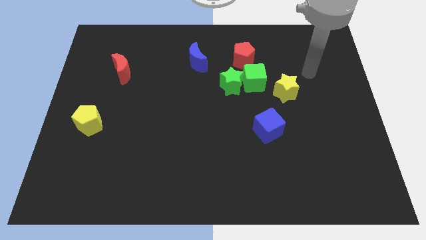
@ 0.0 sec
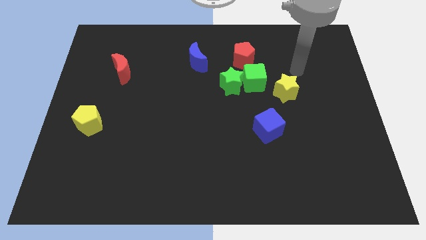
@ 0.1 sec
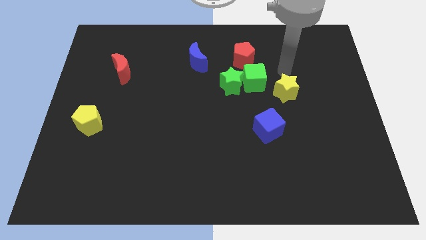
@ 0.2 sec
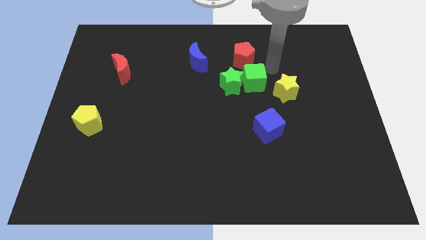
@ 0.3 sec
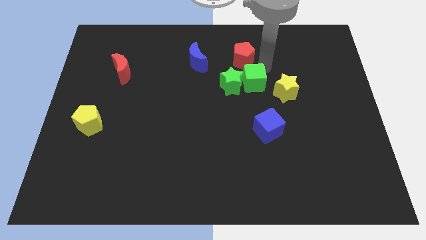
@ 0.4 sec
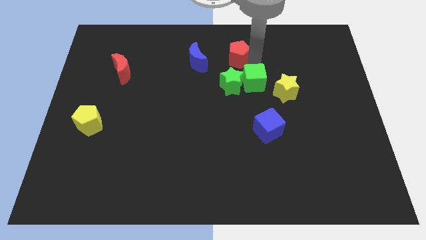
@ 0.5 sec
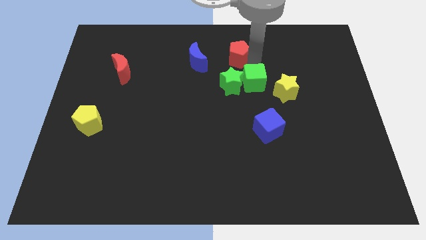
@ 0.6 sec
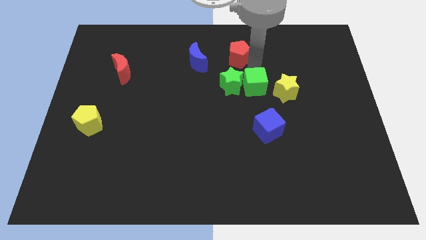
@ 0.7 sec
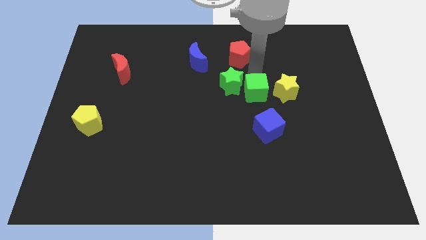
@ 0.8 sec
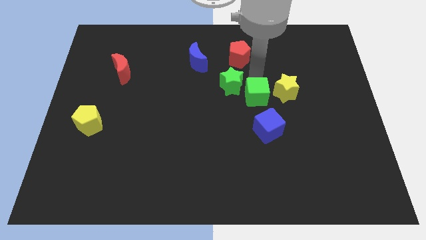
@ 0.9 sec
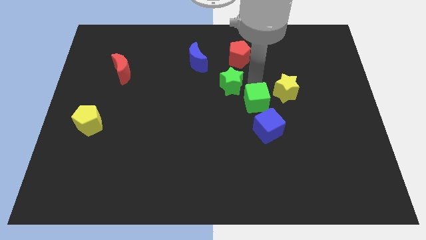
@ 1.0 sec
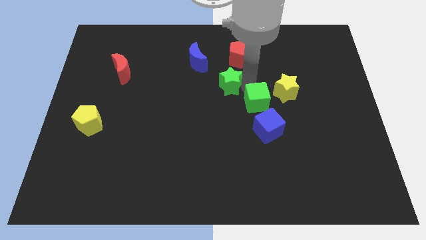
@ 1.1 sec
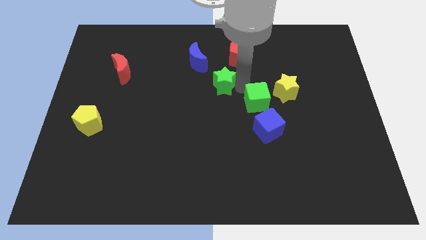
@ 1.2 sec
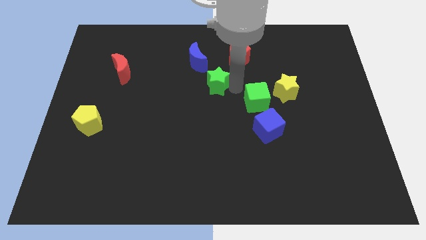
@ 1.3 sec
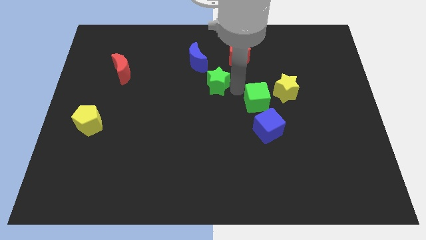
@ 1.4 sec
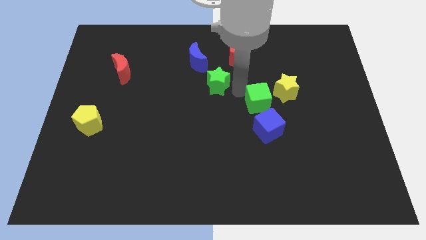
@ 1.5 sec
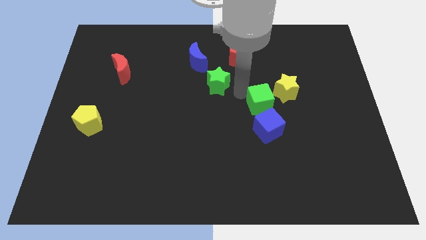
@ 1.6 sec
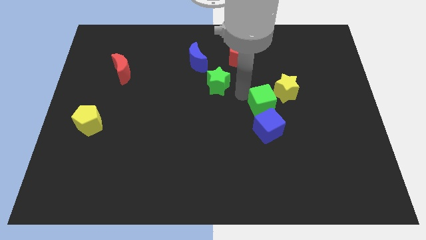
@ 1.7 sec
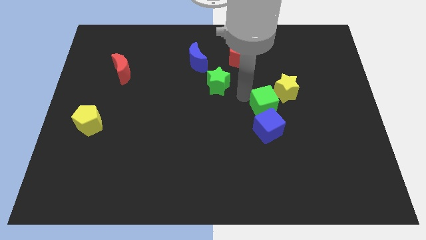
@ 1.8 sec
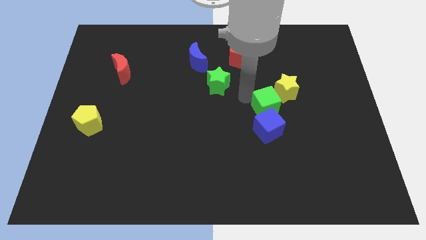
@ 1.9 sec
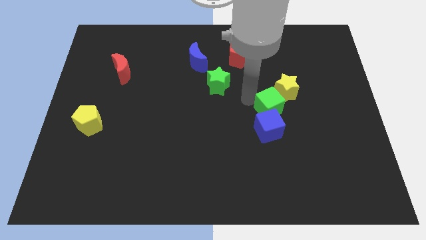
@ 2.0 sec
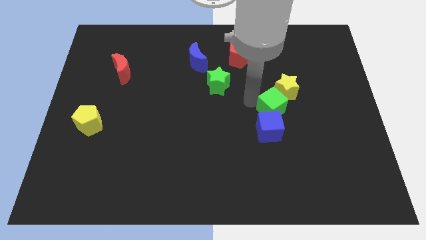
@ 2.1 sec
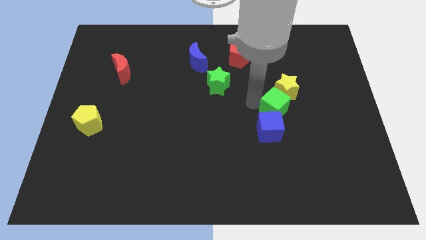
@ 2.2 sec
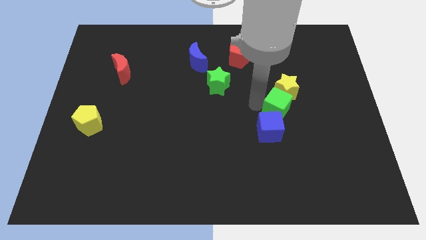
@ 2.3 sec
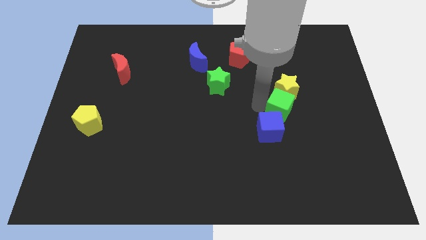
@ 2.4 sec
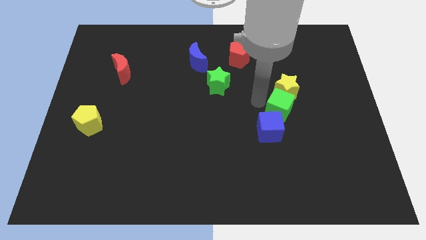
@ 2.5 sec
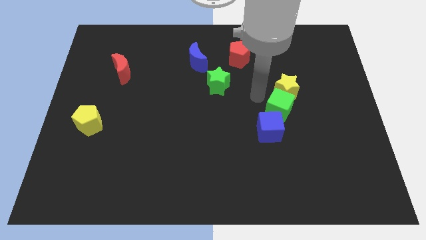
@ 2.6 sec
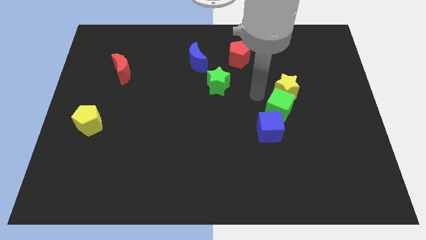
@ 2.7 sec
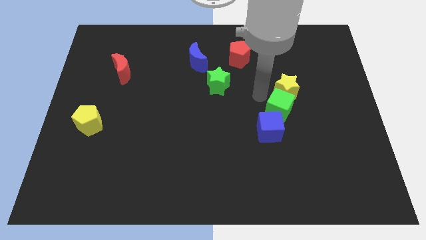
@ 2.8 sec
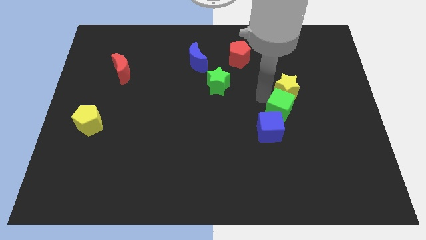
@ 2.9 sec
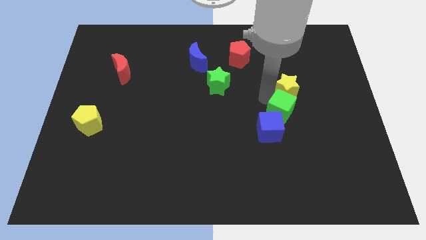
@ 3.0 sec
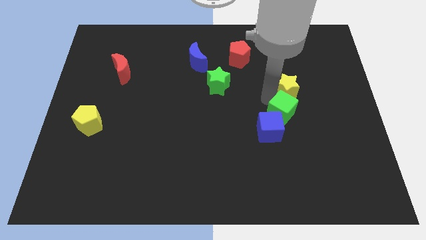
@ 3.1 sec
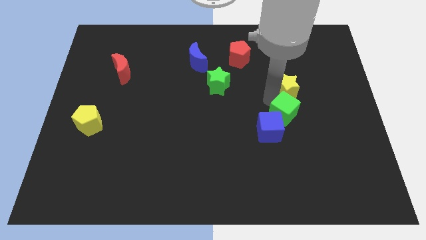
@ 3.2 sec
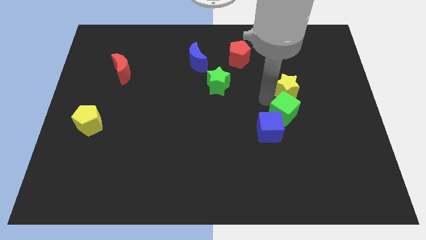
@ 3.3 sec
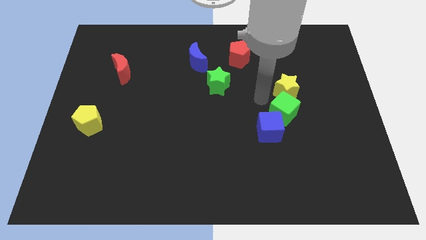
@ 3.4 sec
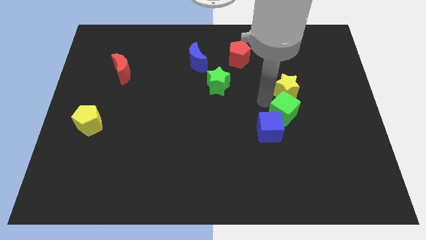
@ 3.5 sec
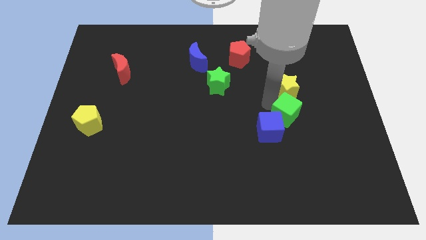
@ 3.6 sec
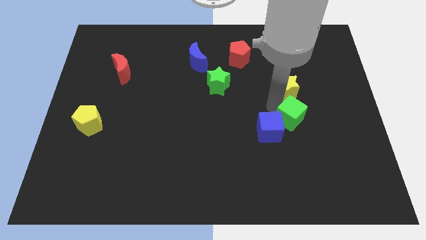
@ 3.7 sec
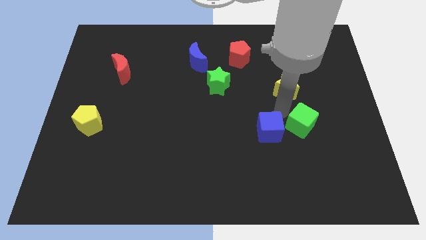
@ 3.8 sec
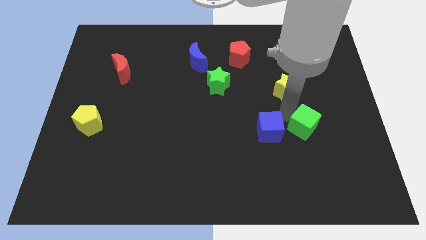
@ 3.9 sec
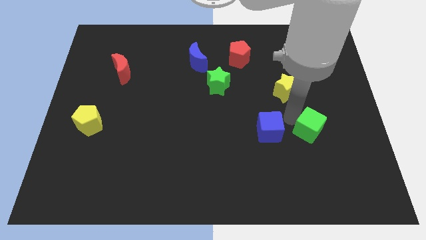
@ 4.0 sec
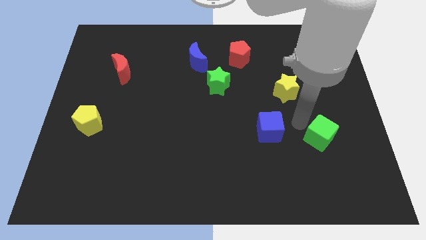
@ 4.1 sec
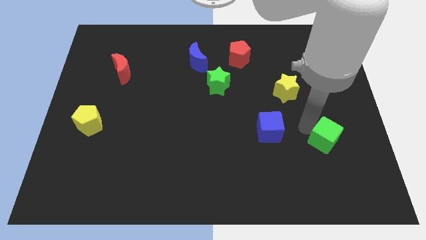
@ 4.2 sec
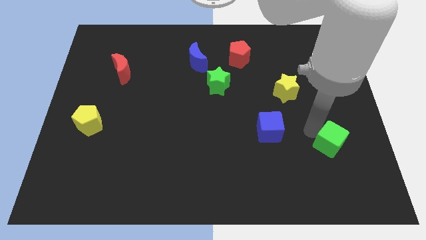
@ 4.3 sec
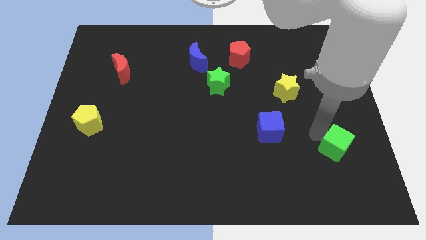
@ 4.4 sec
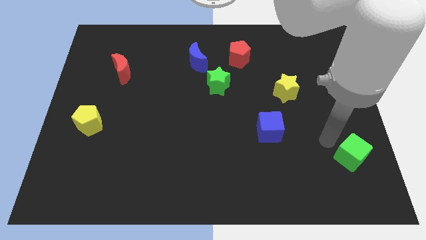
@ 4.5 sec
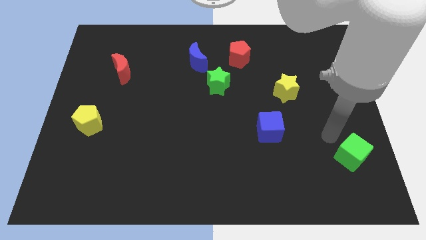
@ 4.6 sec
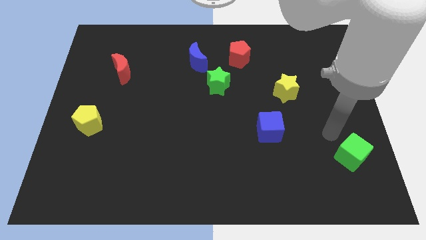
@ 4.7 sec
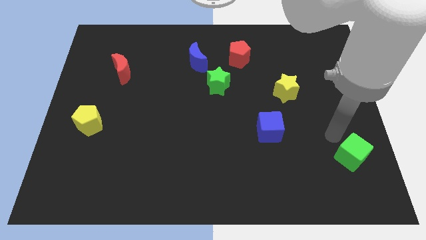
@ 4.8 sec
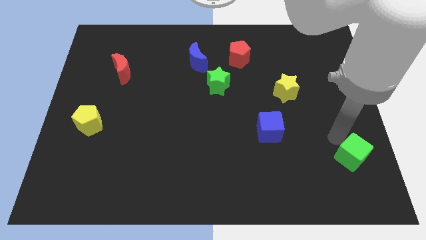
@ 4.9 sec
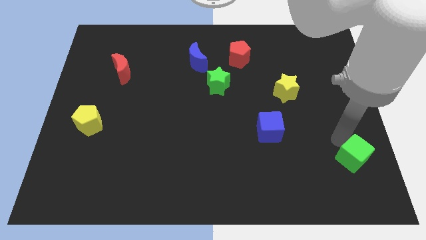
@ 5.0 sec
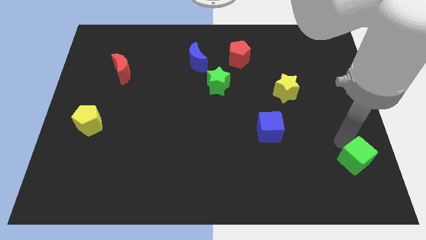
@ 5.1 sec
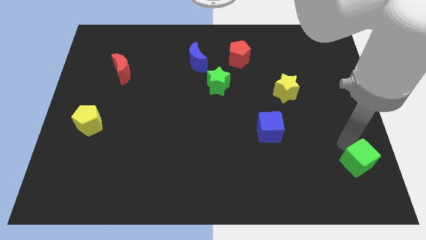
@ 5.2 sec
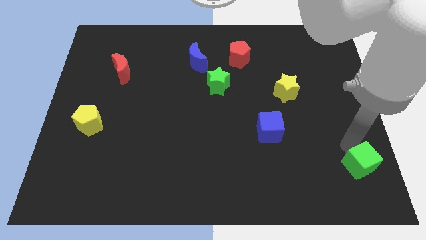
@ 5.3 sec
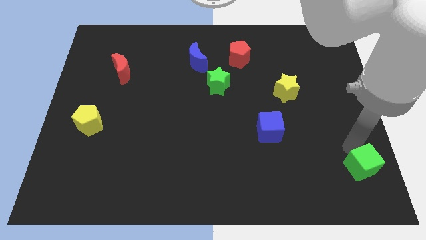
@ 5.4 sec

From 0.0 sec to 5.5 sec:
push the green cube to the bottom right

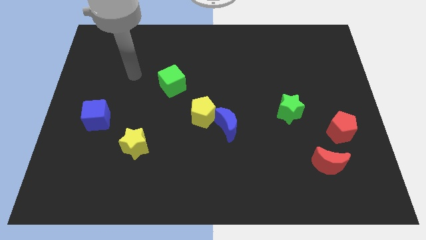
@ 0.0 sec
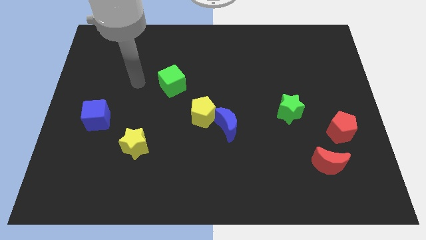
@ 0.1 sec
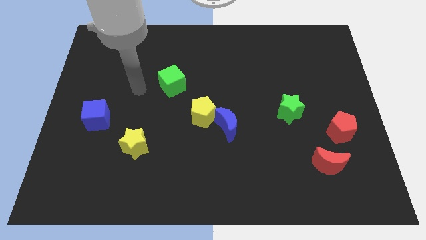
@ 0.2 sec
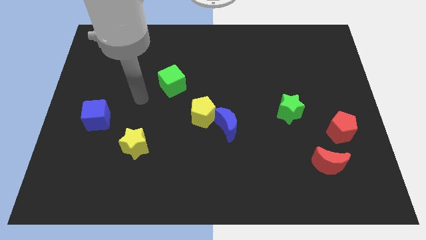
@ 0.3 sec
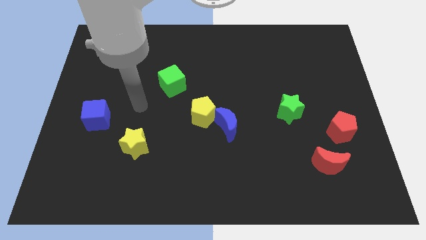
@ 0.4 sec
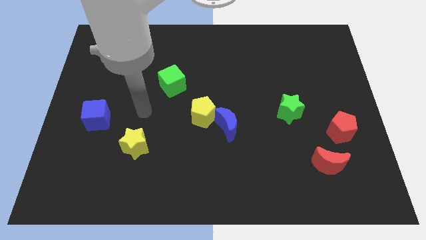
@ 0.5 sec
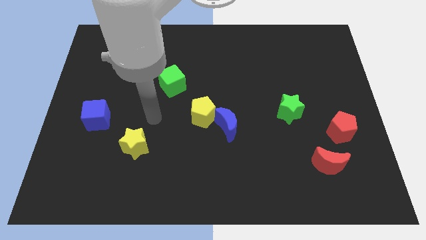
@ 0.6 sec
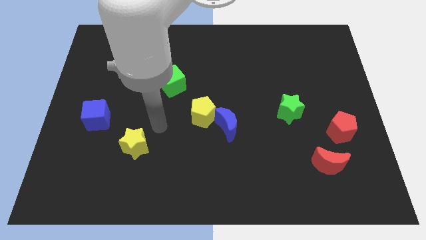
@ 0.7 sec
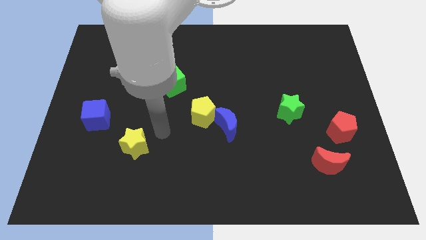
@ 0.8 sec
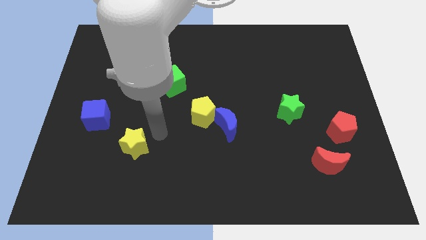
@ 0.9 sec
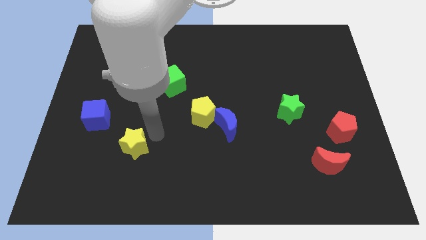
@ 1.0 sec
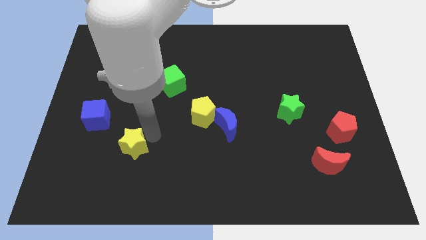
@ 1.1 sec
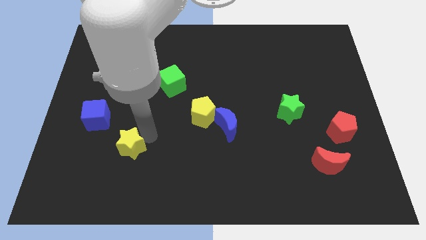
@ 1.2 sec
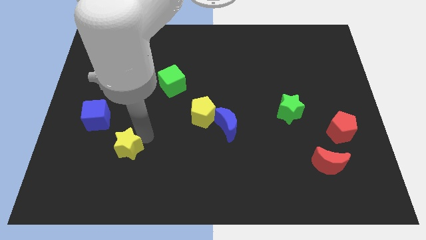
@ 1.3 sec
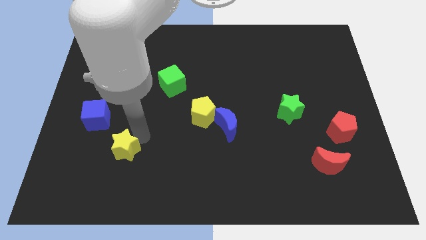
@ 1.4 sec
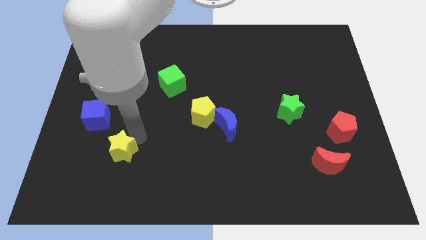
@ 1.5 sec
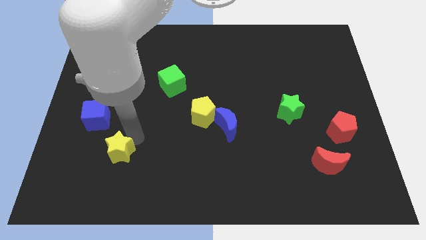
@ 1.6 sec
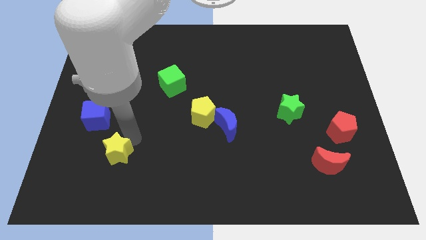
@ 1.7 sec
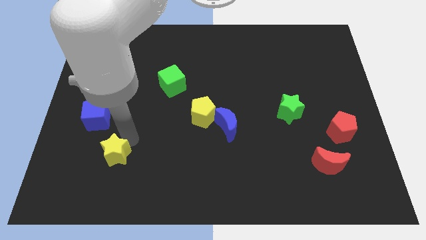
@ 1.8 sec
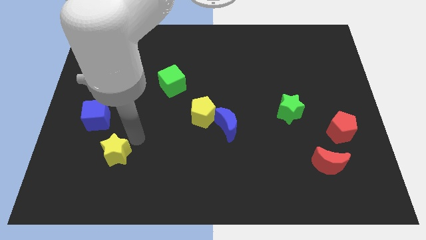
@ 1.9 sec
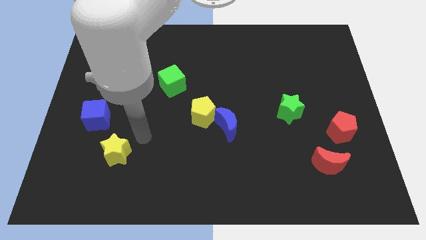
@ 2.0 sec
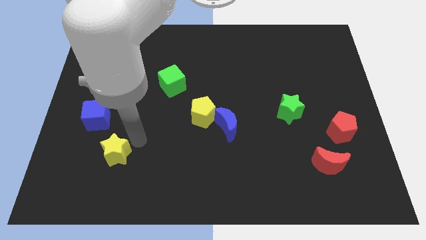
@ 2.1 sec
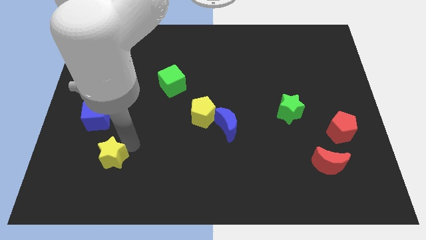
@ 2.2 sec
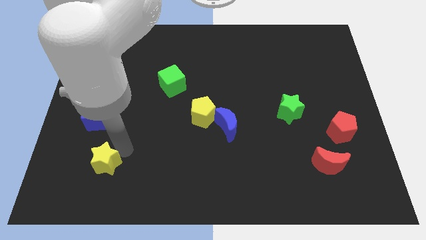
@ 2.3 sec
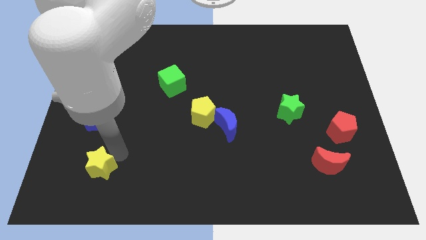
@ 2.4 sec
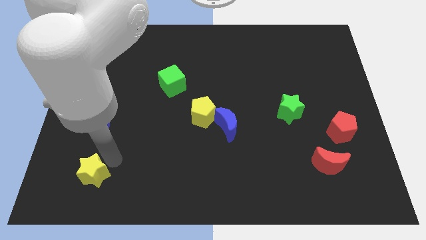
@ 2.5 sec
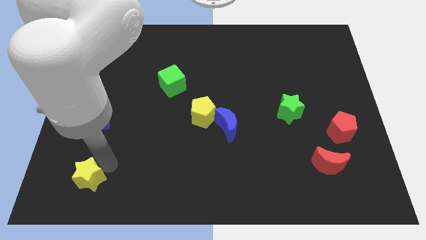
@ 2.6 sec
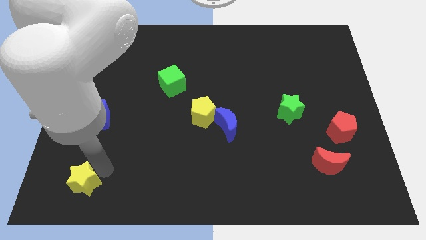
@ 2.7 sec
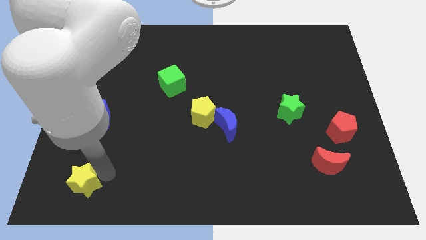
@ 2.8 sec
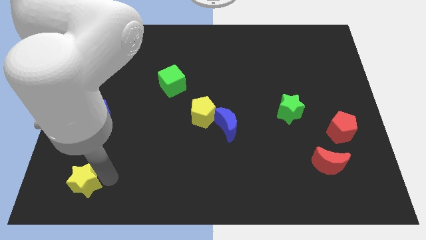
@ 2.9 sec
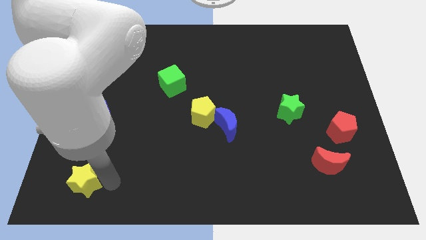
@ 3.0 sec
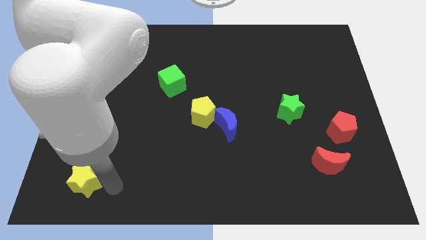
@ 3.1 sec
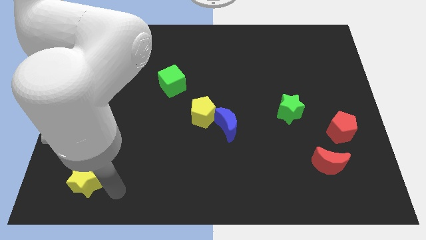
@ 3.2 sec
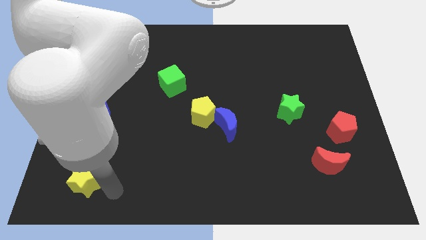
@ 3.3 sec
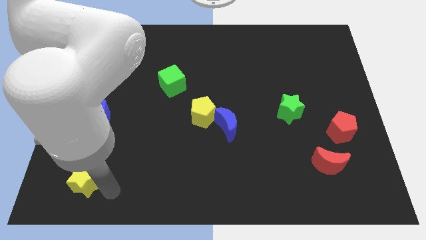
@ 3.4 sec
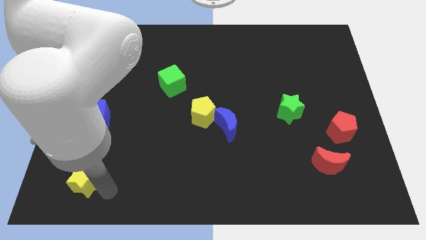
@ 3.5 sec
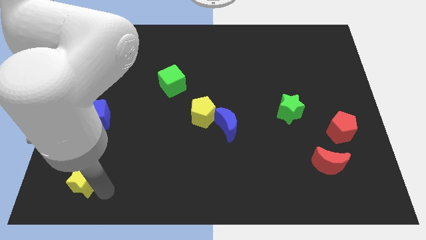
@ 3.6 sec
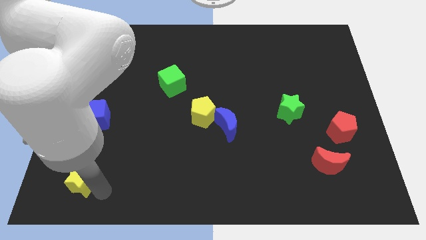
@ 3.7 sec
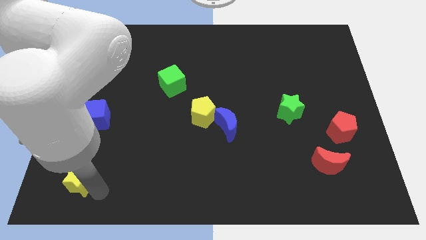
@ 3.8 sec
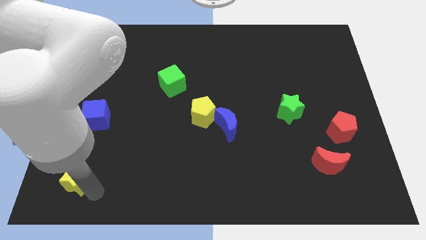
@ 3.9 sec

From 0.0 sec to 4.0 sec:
put the yellow star to the bottom left corner
